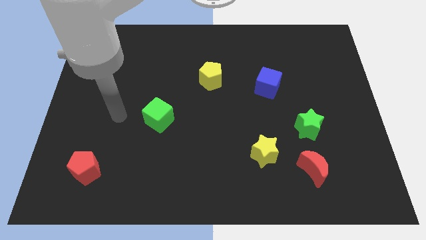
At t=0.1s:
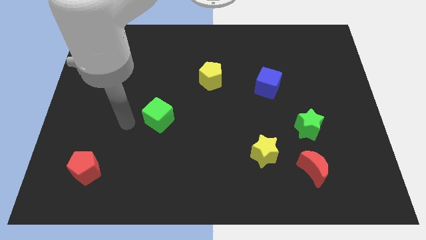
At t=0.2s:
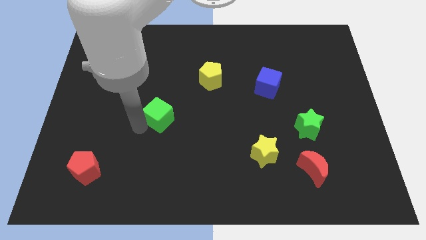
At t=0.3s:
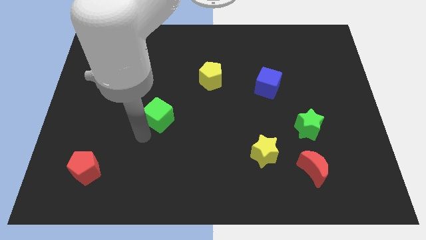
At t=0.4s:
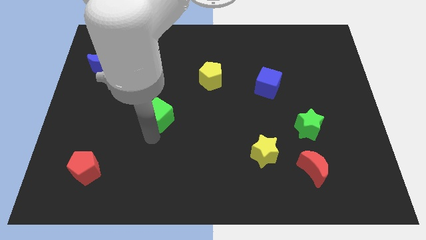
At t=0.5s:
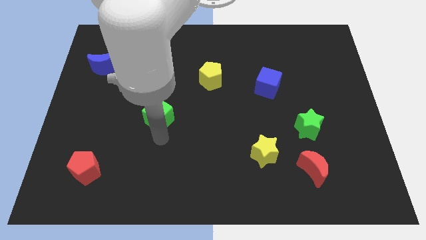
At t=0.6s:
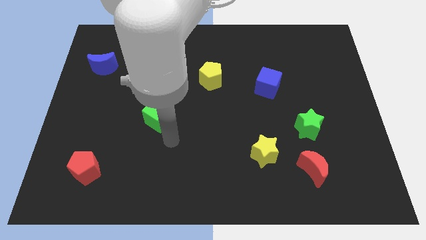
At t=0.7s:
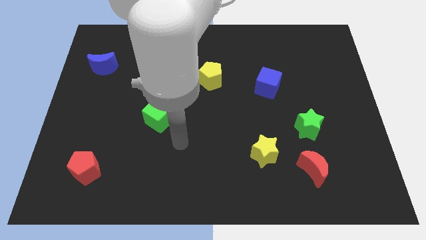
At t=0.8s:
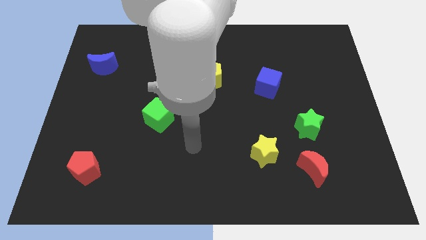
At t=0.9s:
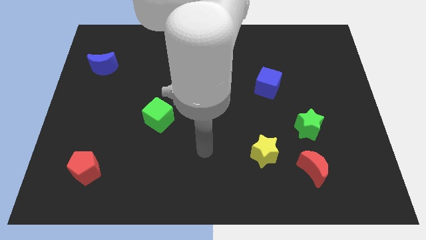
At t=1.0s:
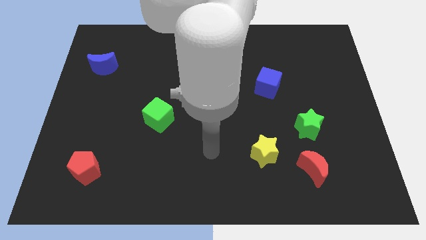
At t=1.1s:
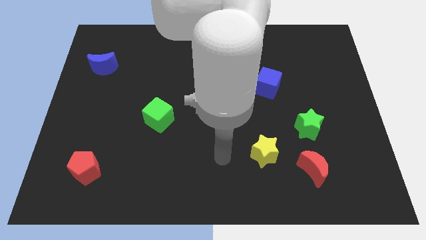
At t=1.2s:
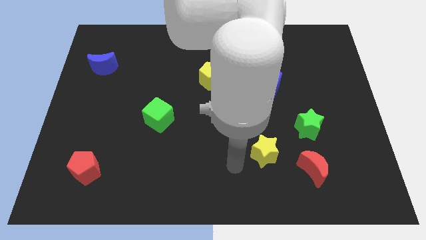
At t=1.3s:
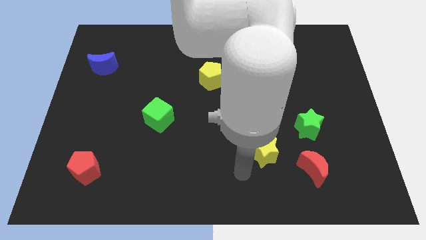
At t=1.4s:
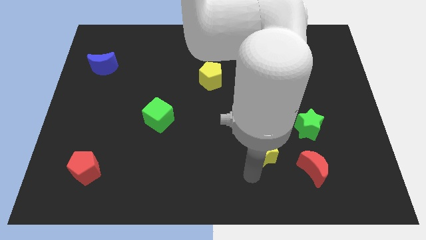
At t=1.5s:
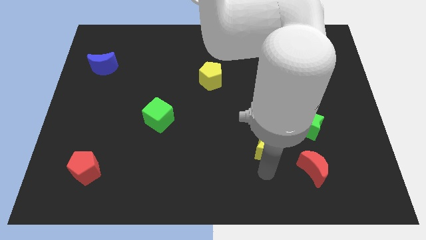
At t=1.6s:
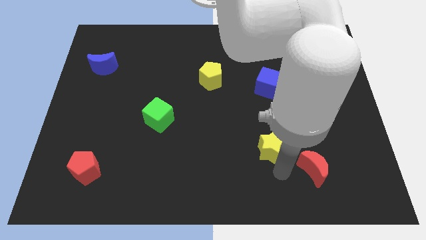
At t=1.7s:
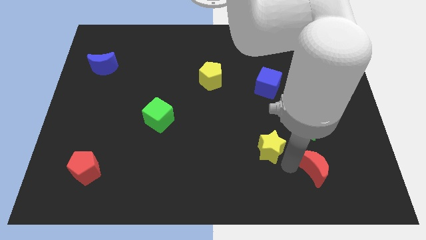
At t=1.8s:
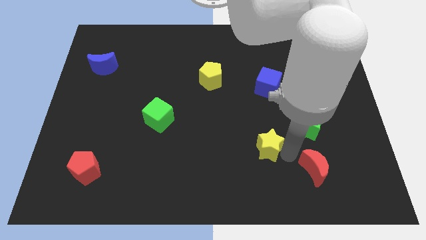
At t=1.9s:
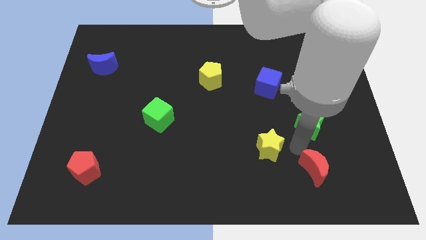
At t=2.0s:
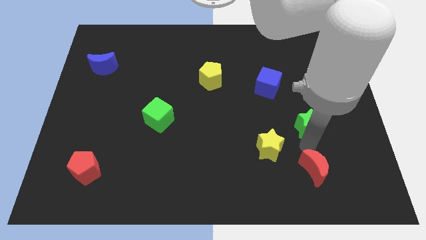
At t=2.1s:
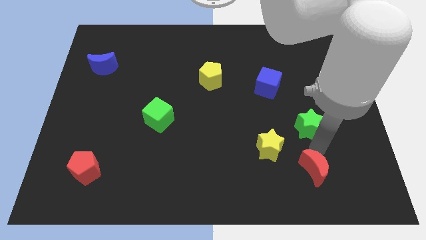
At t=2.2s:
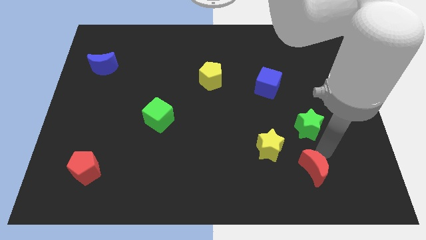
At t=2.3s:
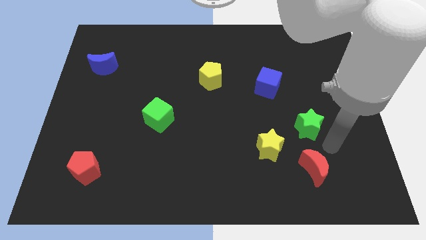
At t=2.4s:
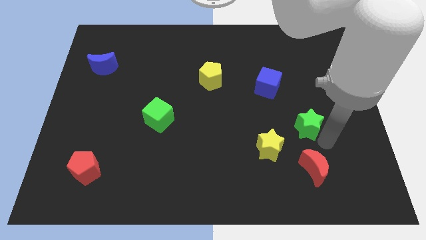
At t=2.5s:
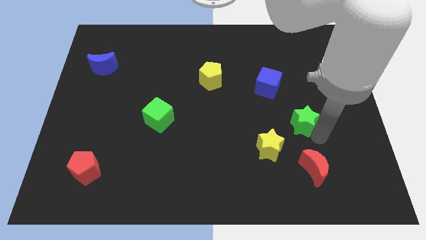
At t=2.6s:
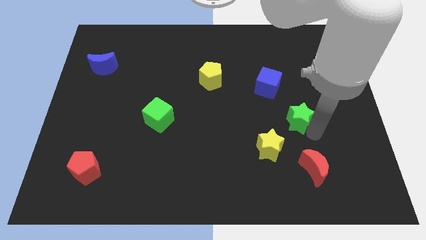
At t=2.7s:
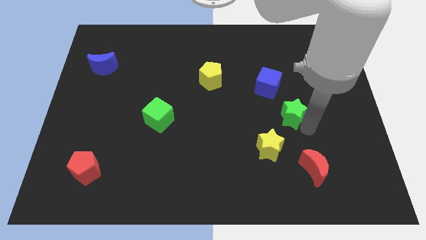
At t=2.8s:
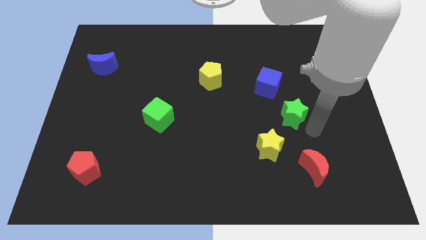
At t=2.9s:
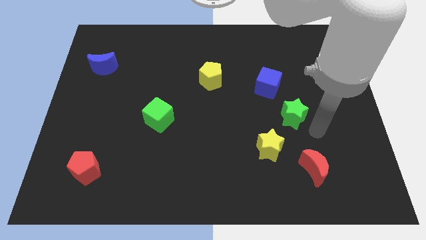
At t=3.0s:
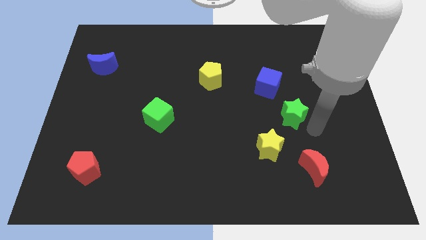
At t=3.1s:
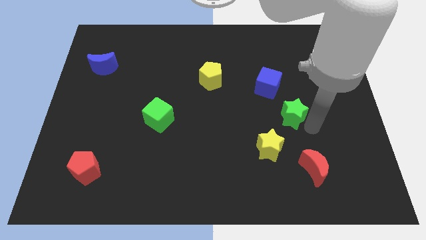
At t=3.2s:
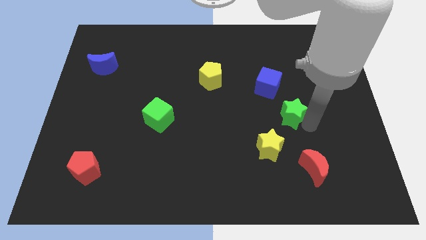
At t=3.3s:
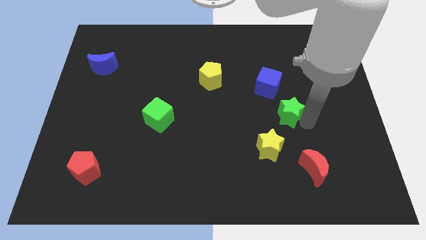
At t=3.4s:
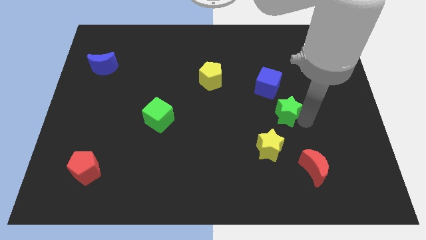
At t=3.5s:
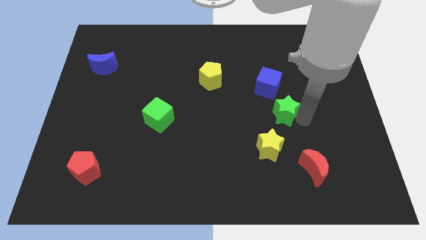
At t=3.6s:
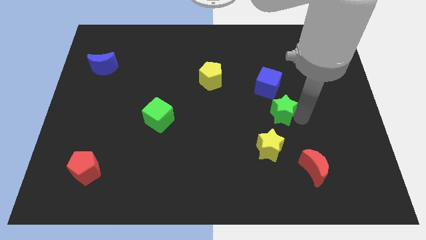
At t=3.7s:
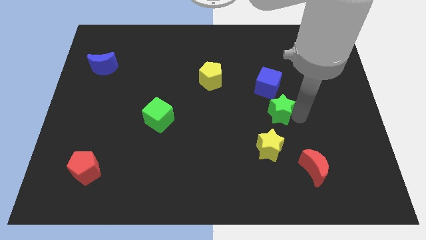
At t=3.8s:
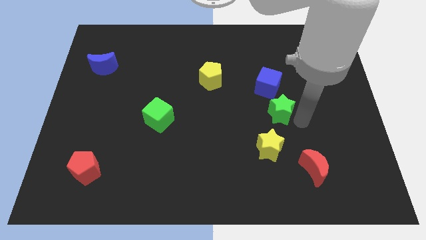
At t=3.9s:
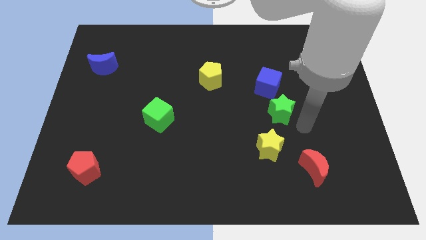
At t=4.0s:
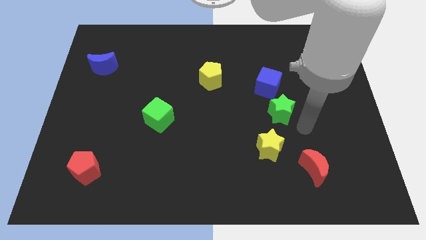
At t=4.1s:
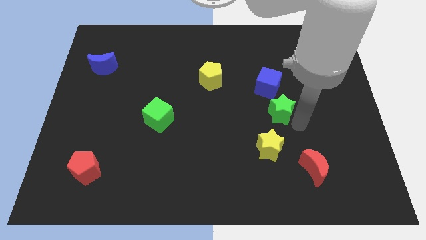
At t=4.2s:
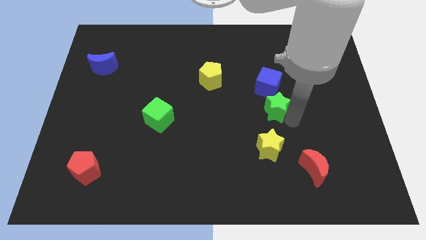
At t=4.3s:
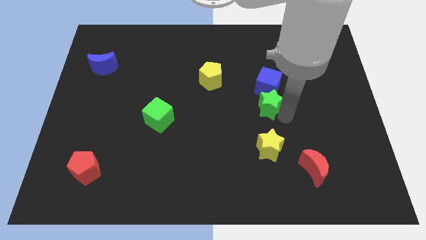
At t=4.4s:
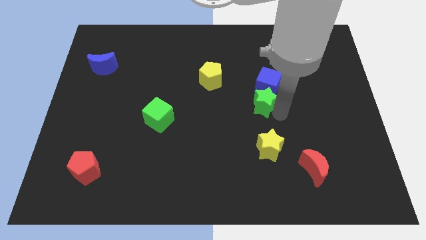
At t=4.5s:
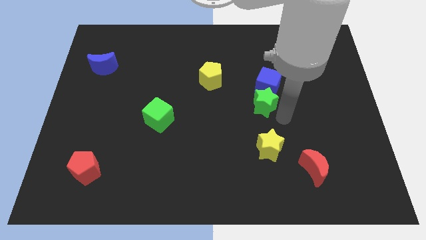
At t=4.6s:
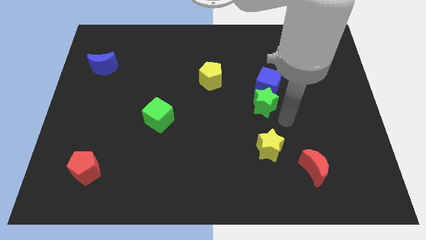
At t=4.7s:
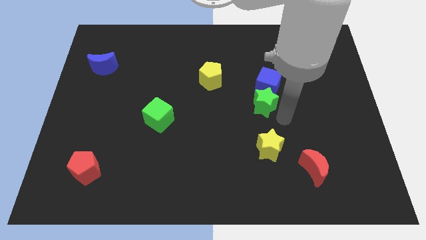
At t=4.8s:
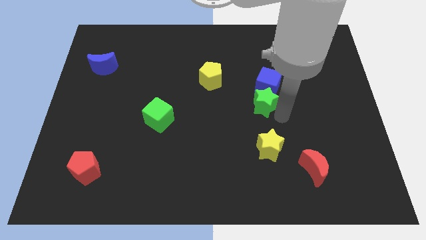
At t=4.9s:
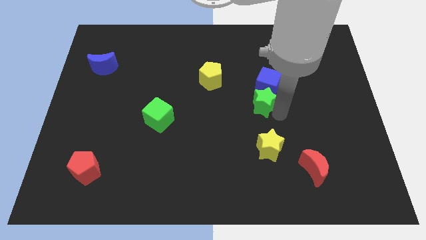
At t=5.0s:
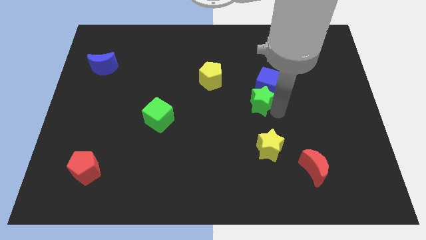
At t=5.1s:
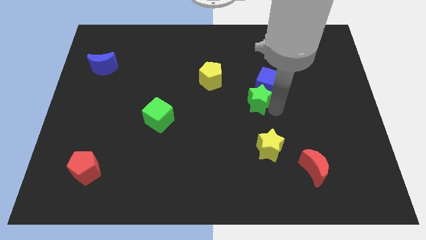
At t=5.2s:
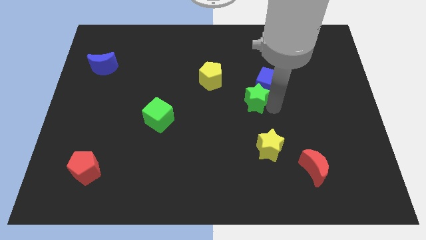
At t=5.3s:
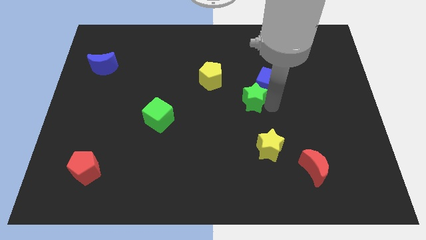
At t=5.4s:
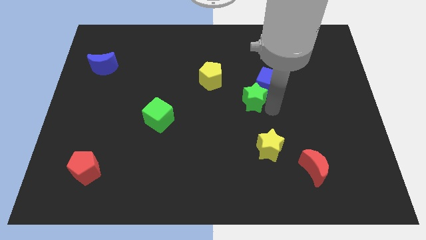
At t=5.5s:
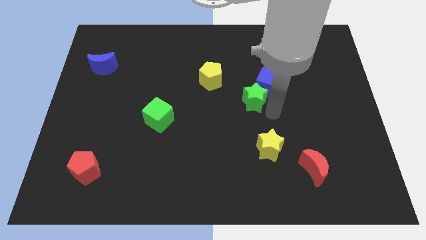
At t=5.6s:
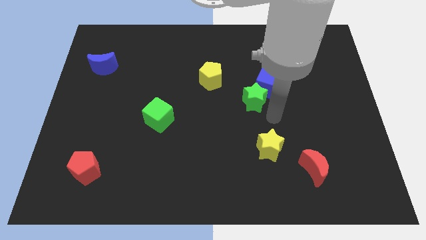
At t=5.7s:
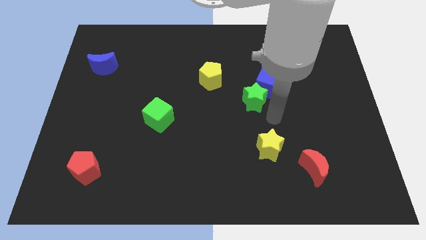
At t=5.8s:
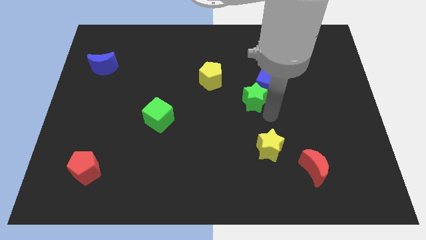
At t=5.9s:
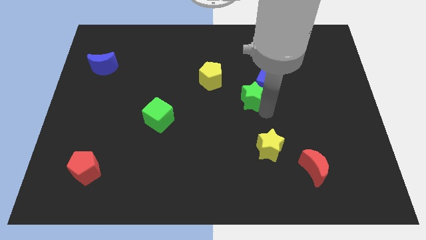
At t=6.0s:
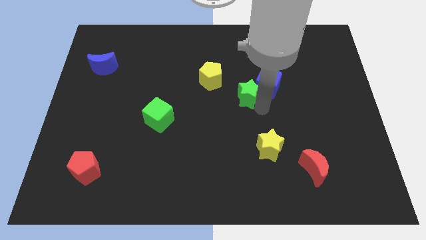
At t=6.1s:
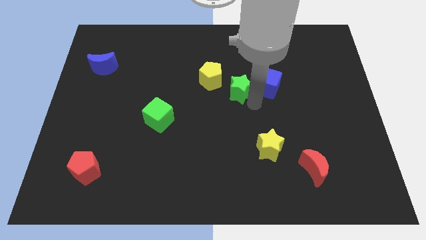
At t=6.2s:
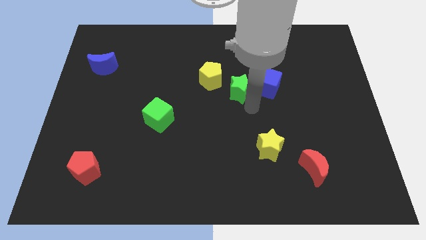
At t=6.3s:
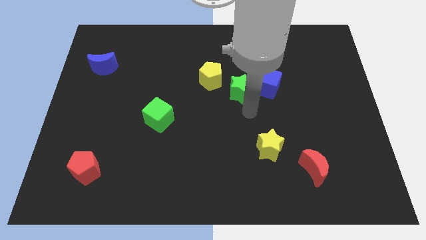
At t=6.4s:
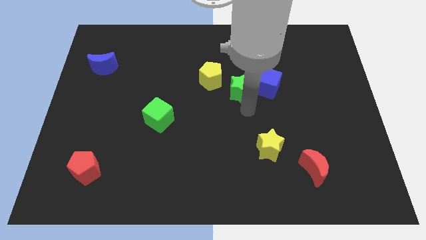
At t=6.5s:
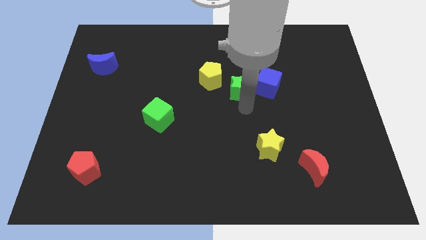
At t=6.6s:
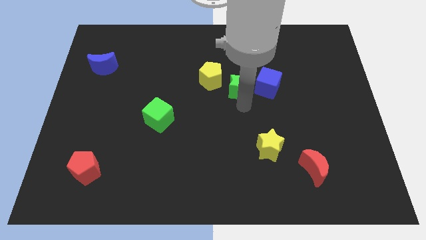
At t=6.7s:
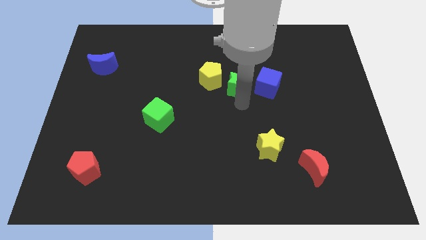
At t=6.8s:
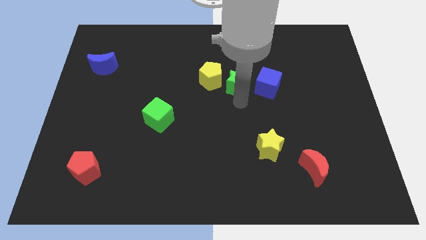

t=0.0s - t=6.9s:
move the green star up and then to the left

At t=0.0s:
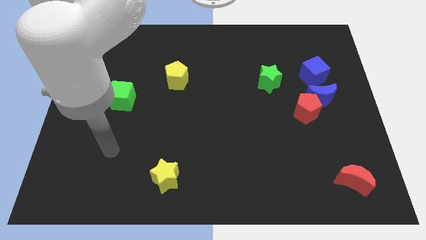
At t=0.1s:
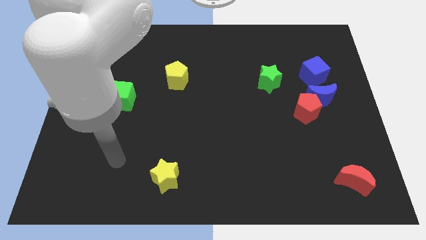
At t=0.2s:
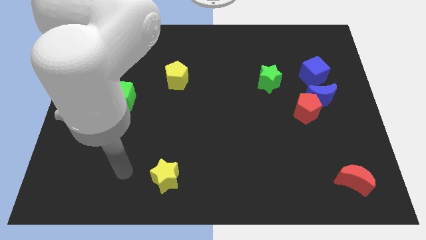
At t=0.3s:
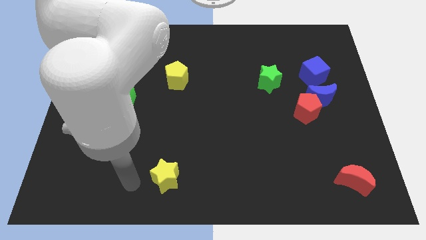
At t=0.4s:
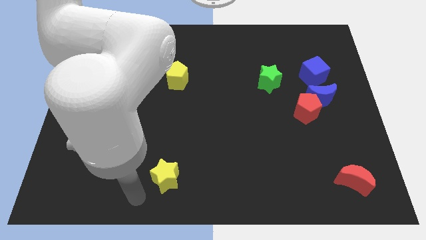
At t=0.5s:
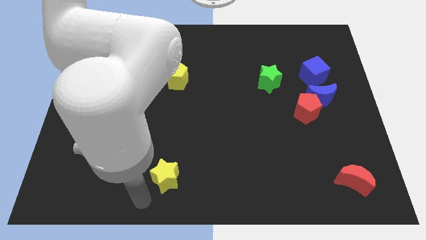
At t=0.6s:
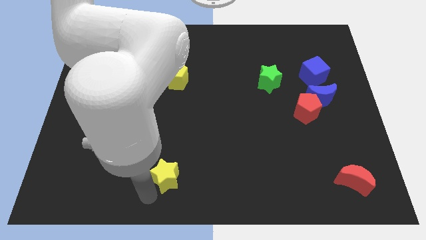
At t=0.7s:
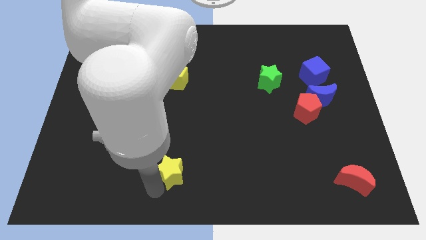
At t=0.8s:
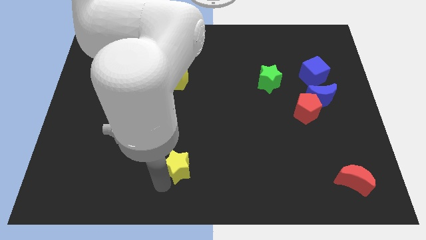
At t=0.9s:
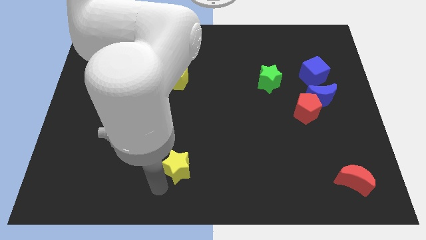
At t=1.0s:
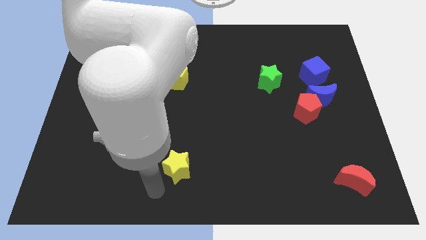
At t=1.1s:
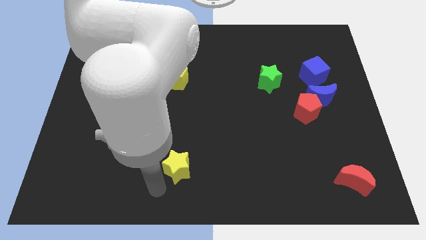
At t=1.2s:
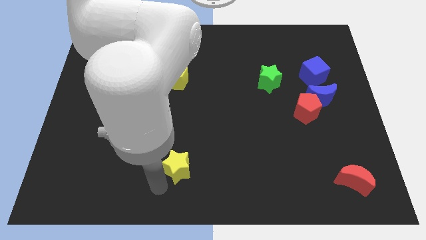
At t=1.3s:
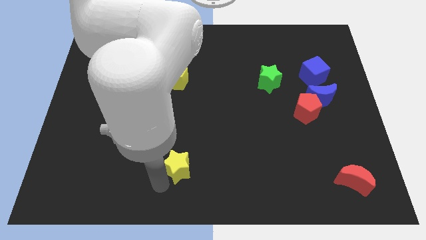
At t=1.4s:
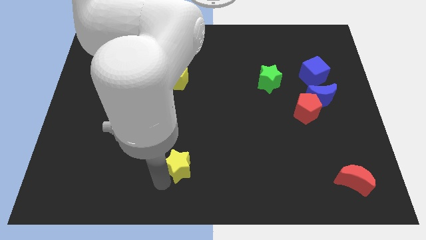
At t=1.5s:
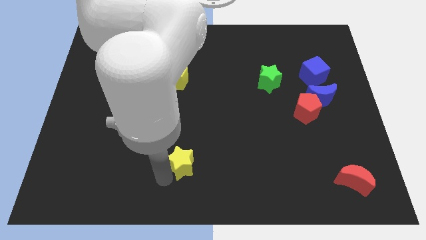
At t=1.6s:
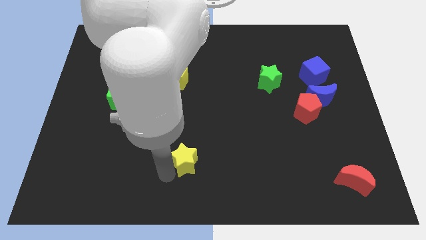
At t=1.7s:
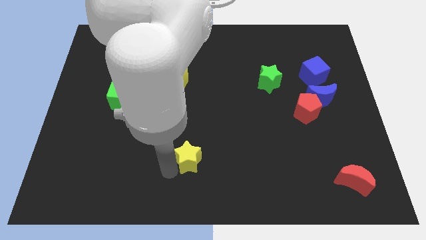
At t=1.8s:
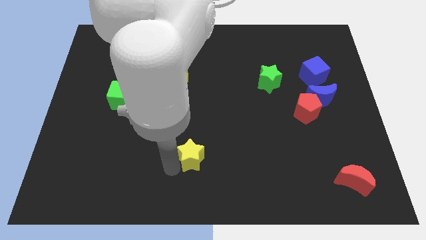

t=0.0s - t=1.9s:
slightly slide the yellow star diagonally up and right
